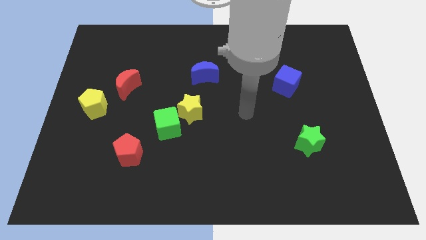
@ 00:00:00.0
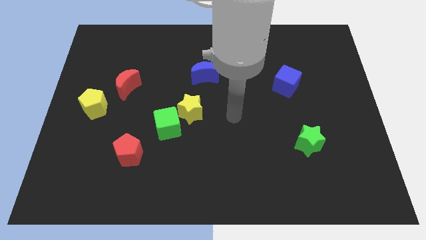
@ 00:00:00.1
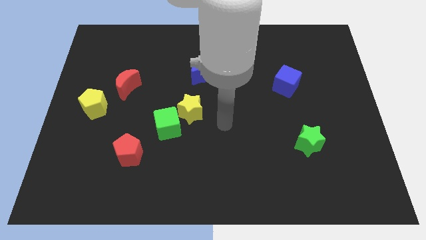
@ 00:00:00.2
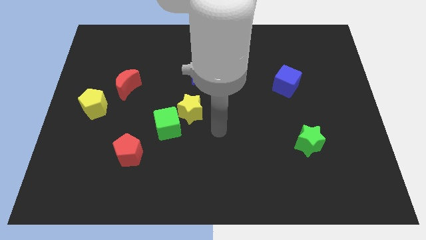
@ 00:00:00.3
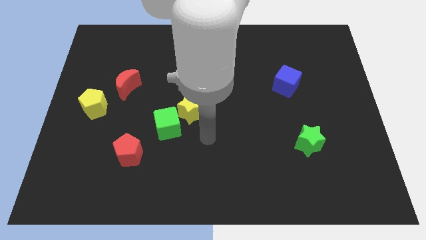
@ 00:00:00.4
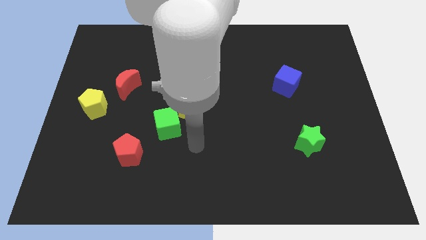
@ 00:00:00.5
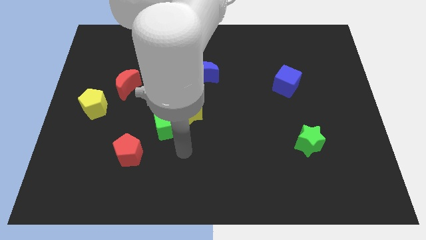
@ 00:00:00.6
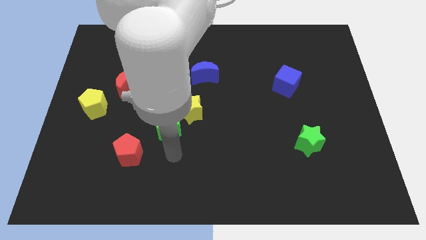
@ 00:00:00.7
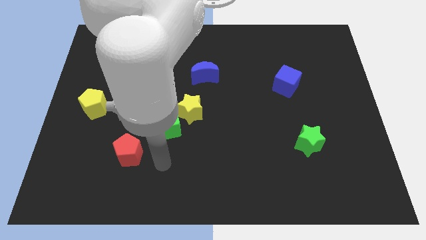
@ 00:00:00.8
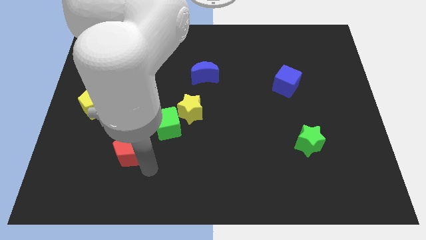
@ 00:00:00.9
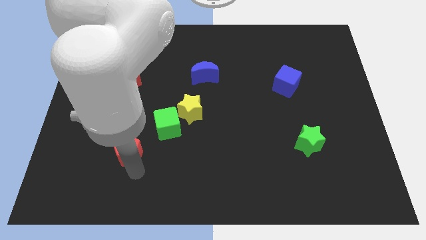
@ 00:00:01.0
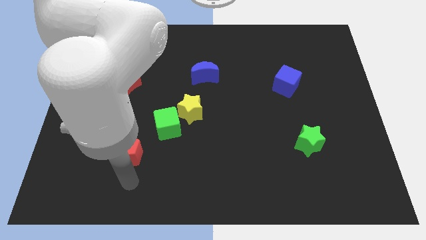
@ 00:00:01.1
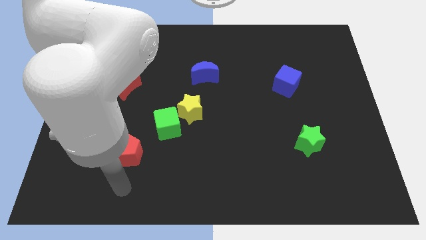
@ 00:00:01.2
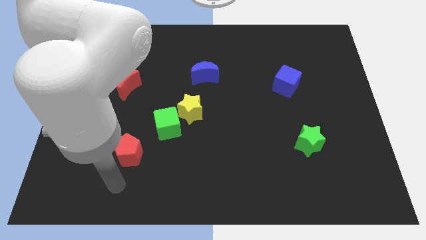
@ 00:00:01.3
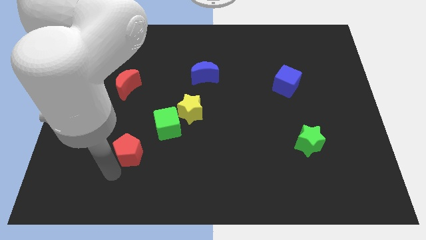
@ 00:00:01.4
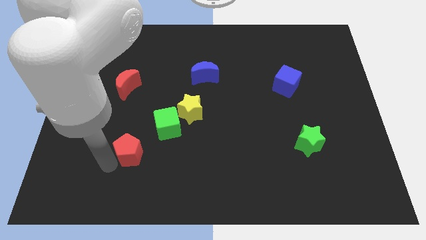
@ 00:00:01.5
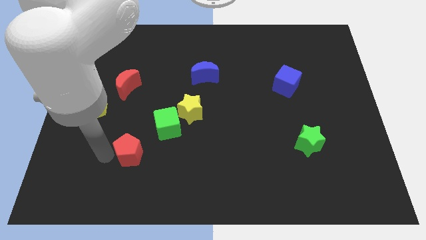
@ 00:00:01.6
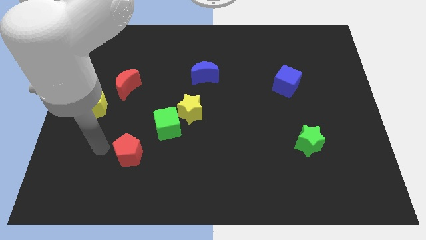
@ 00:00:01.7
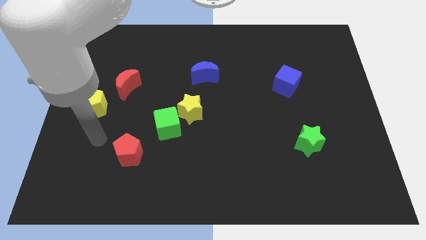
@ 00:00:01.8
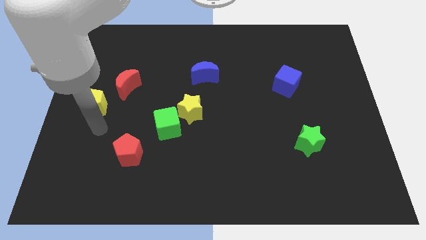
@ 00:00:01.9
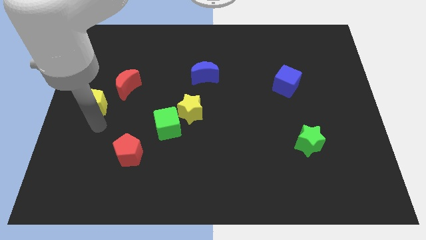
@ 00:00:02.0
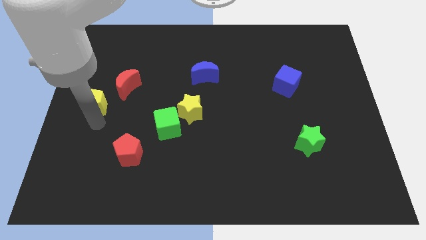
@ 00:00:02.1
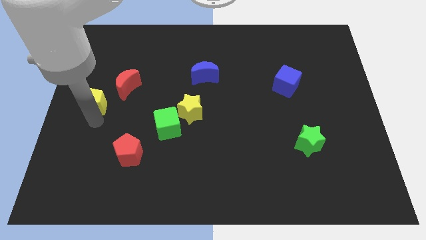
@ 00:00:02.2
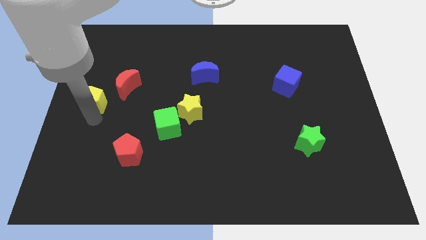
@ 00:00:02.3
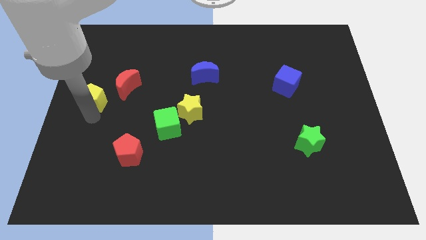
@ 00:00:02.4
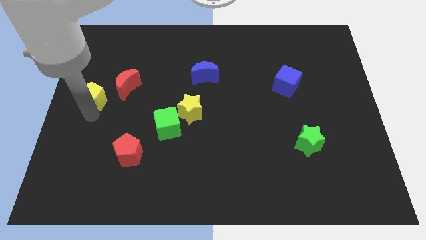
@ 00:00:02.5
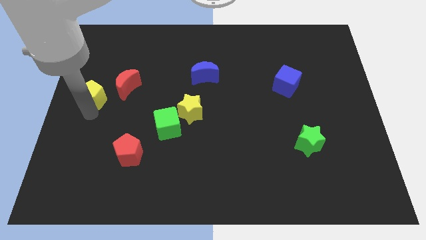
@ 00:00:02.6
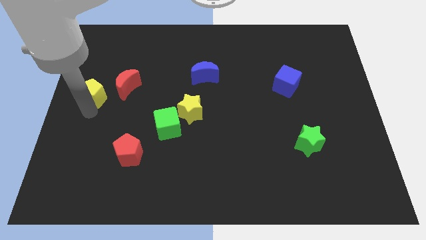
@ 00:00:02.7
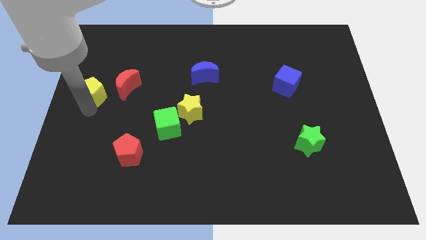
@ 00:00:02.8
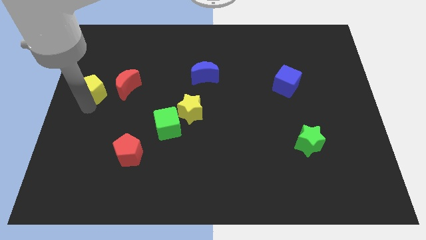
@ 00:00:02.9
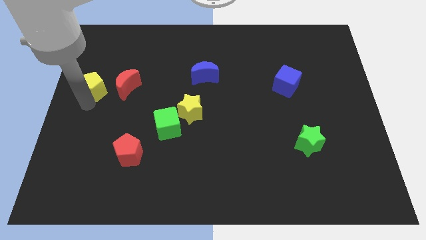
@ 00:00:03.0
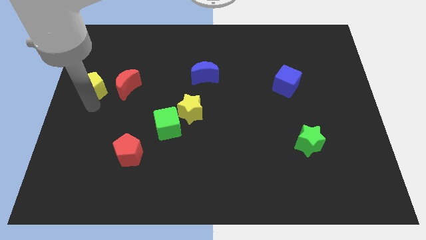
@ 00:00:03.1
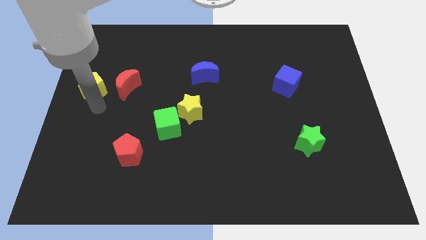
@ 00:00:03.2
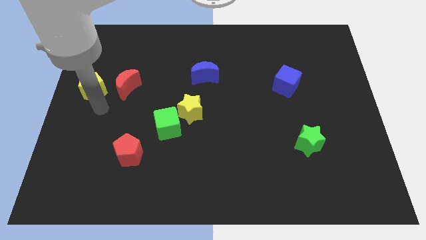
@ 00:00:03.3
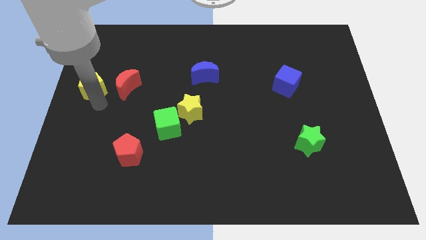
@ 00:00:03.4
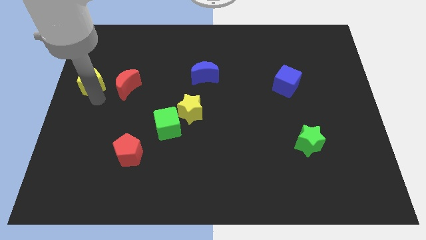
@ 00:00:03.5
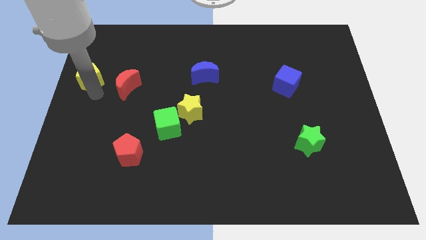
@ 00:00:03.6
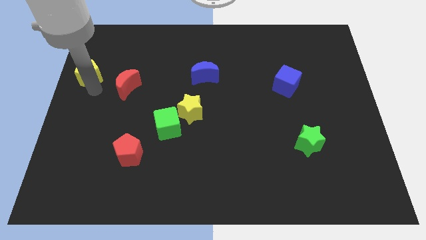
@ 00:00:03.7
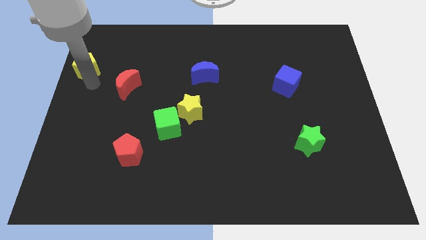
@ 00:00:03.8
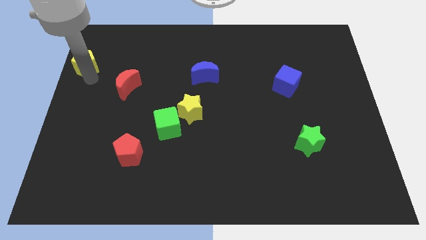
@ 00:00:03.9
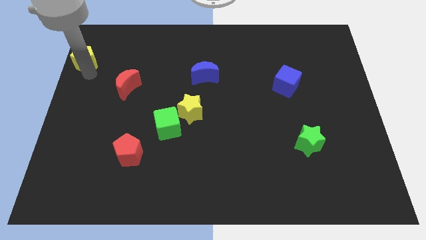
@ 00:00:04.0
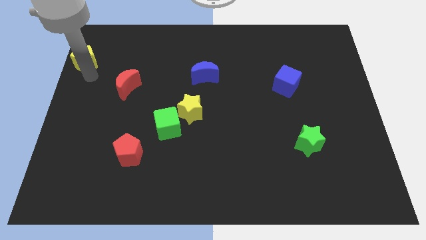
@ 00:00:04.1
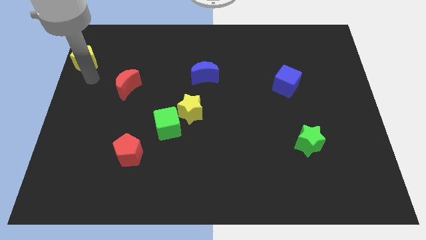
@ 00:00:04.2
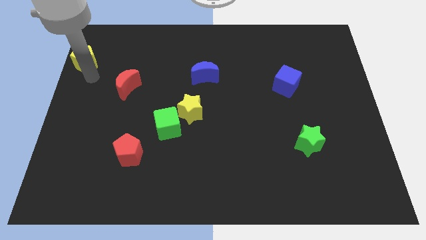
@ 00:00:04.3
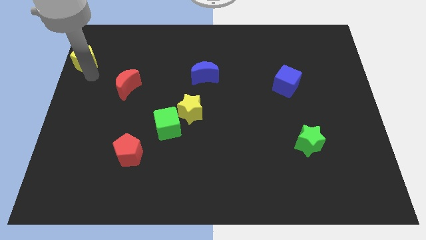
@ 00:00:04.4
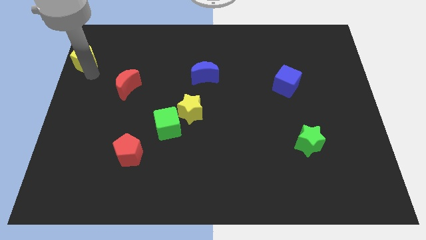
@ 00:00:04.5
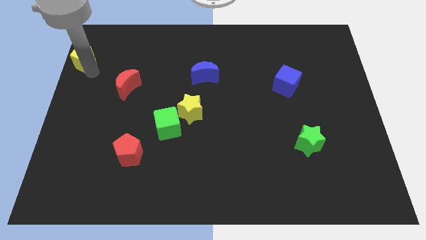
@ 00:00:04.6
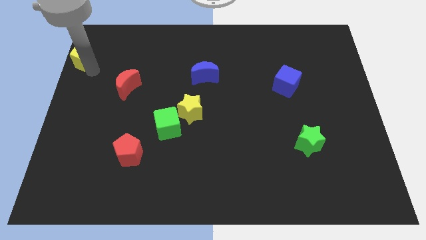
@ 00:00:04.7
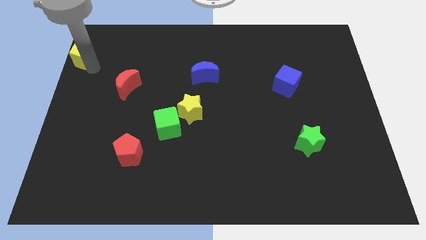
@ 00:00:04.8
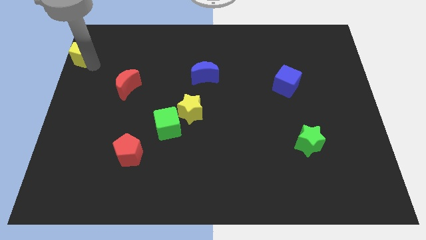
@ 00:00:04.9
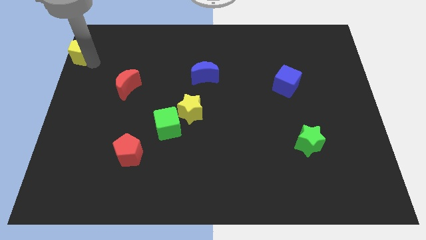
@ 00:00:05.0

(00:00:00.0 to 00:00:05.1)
slide the yellow pentagon to the upper left corner

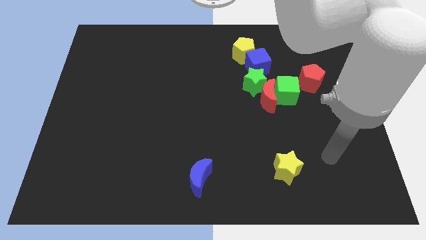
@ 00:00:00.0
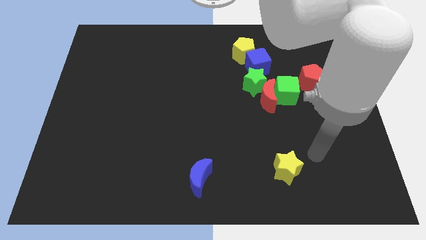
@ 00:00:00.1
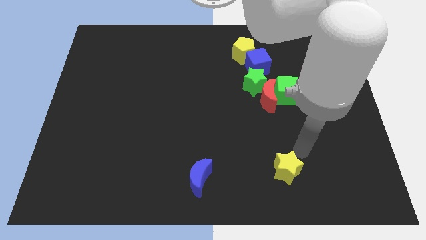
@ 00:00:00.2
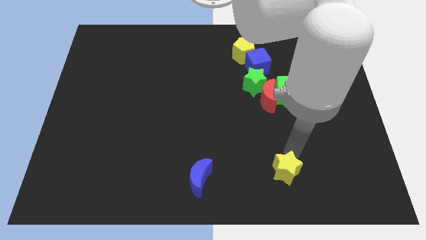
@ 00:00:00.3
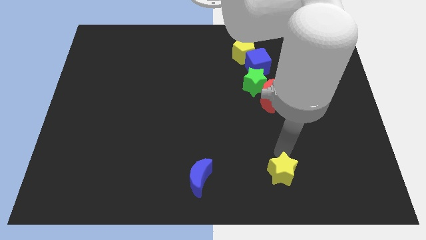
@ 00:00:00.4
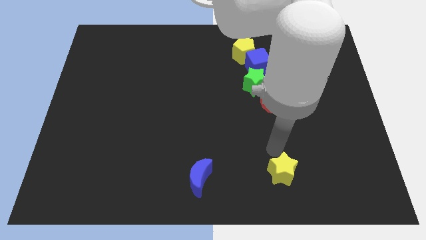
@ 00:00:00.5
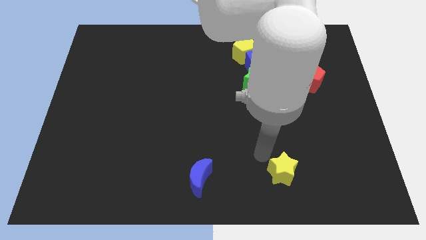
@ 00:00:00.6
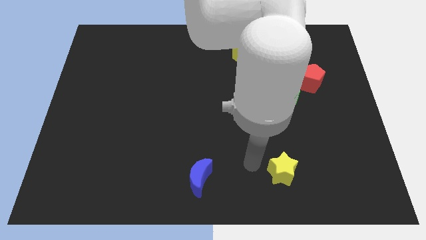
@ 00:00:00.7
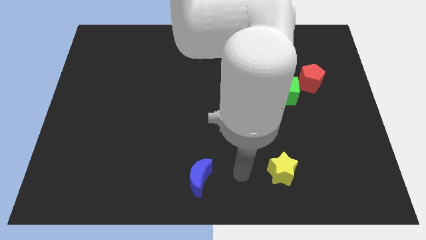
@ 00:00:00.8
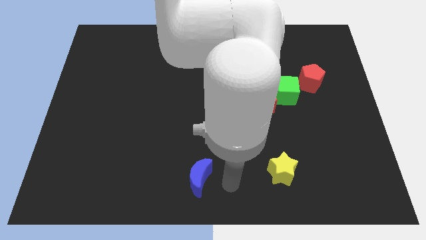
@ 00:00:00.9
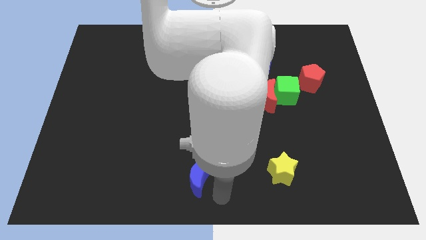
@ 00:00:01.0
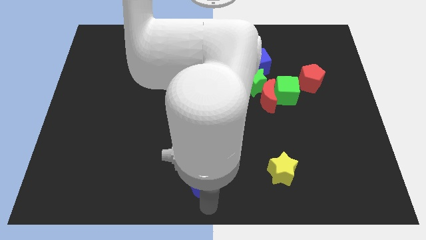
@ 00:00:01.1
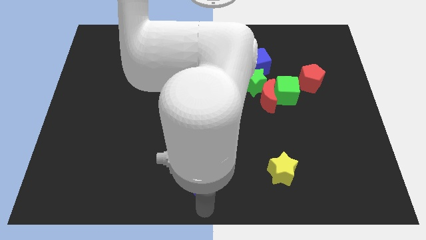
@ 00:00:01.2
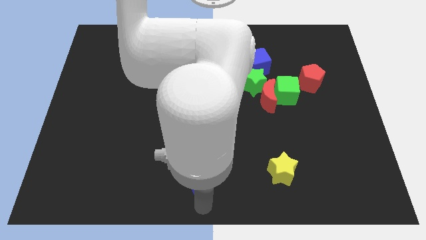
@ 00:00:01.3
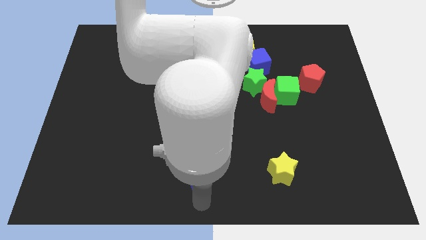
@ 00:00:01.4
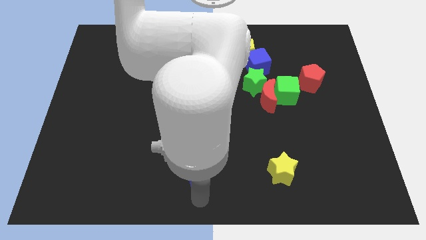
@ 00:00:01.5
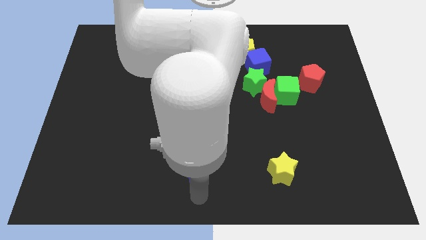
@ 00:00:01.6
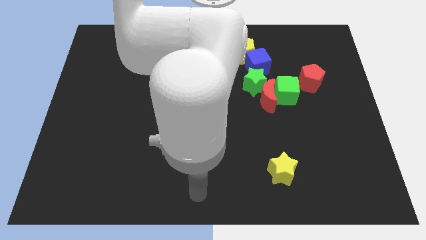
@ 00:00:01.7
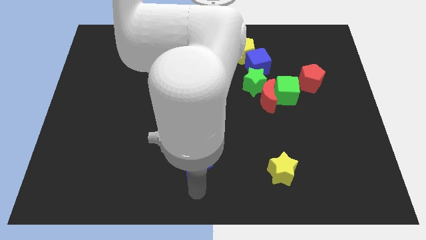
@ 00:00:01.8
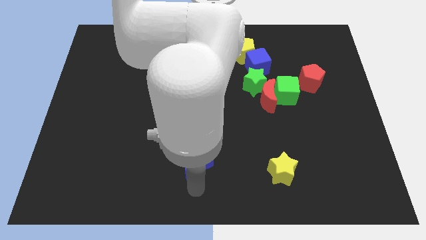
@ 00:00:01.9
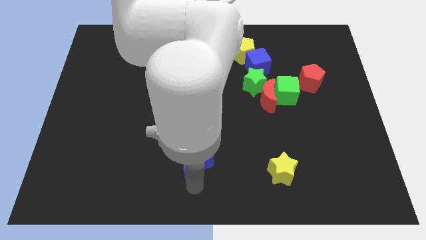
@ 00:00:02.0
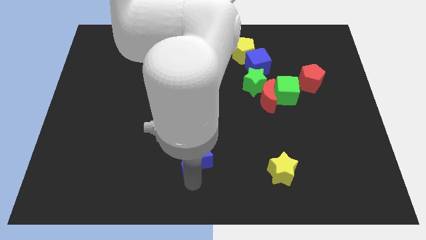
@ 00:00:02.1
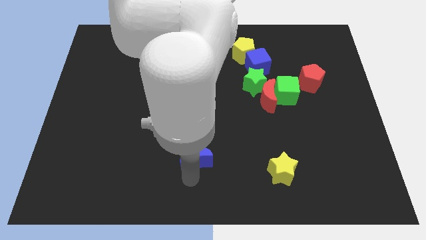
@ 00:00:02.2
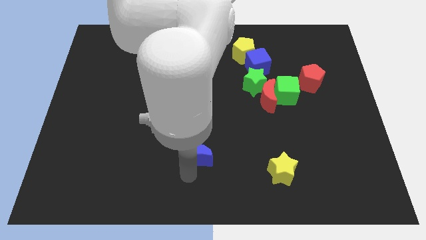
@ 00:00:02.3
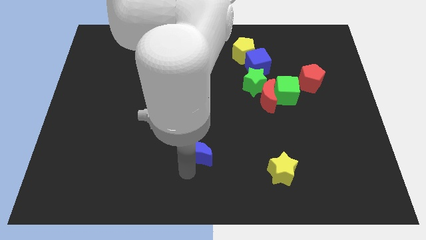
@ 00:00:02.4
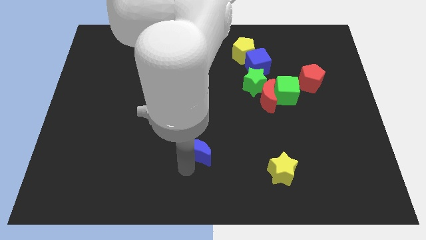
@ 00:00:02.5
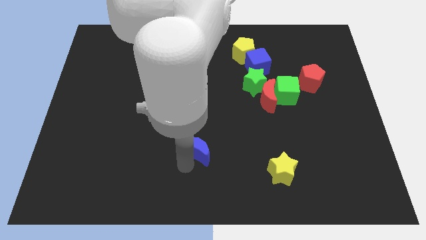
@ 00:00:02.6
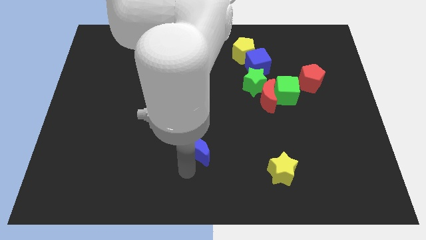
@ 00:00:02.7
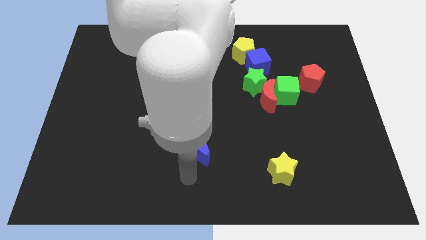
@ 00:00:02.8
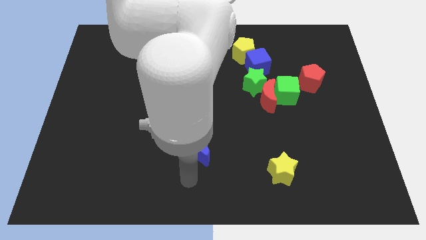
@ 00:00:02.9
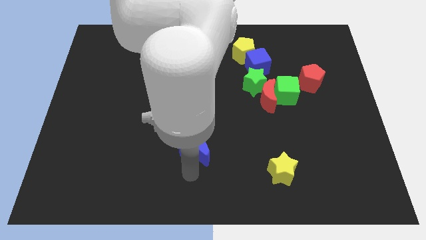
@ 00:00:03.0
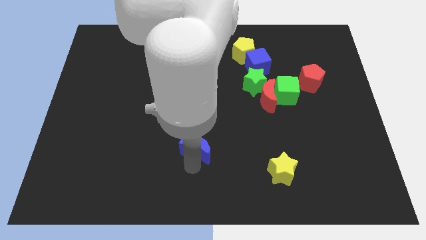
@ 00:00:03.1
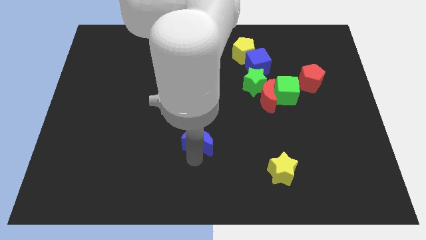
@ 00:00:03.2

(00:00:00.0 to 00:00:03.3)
push the blue moon to the center of the board
